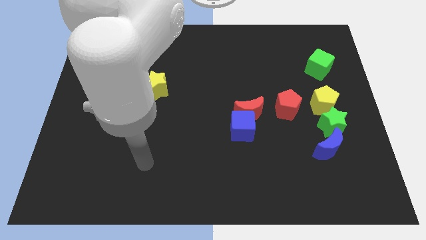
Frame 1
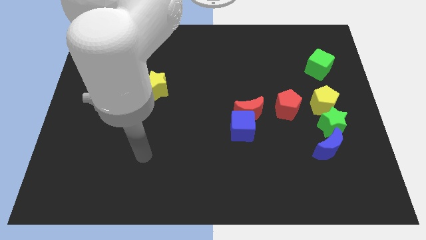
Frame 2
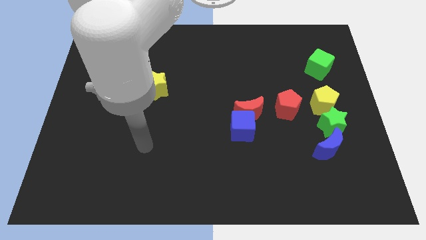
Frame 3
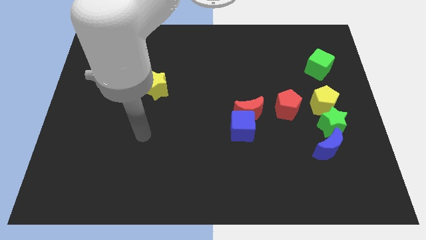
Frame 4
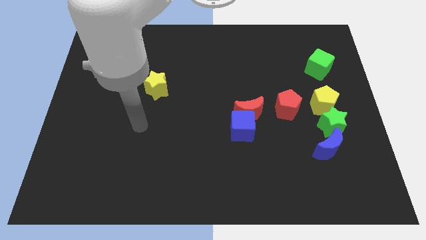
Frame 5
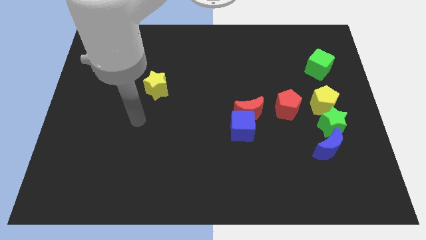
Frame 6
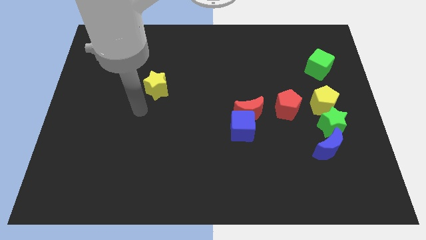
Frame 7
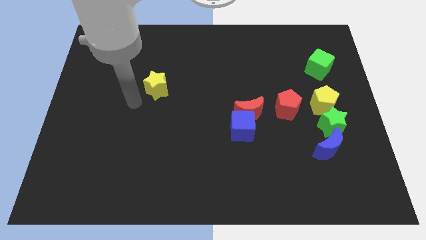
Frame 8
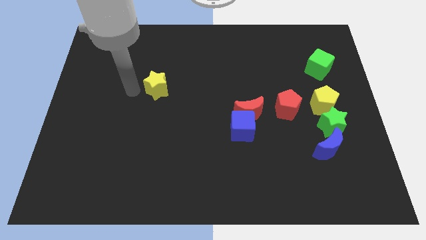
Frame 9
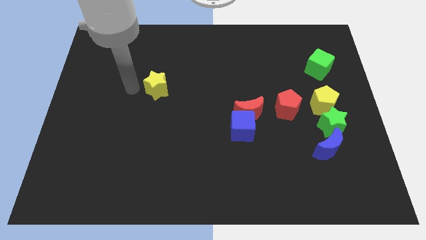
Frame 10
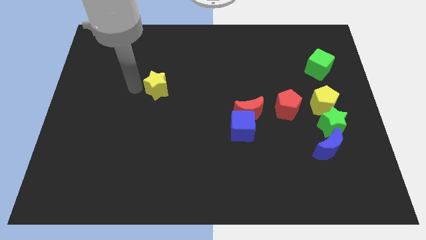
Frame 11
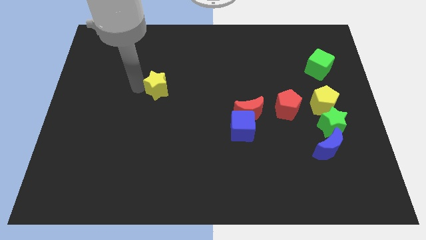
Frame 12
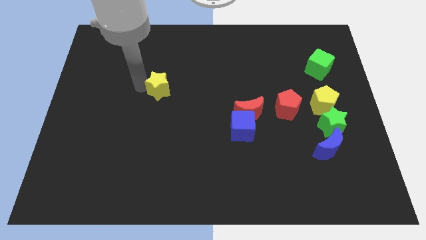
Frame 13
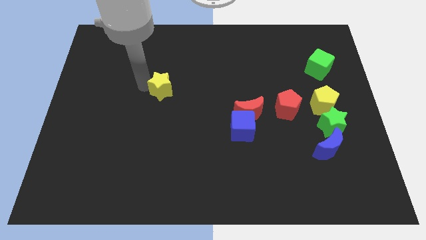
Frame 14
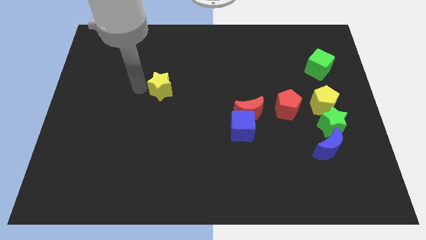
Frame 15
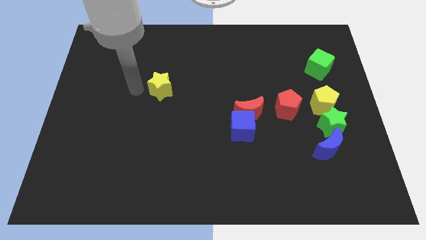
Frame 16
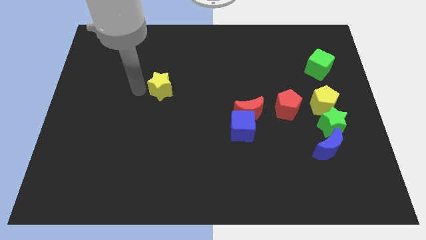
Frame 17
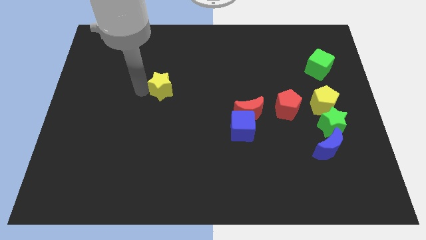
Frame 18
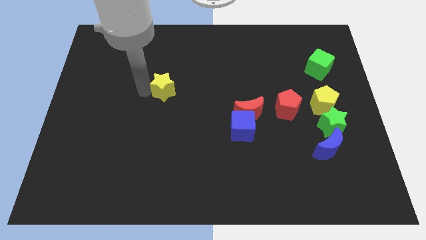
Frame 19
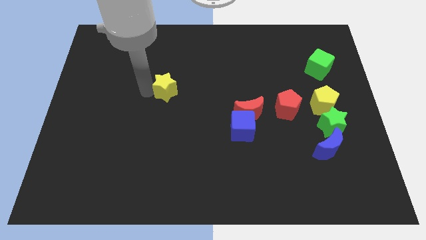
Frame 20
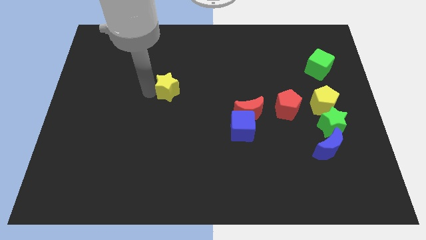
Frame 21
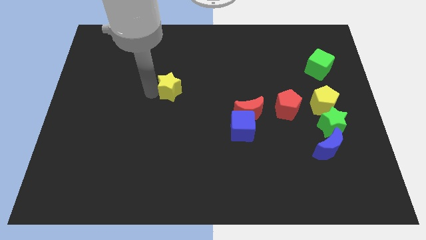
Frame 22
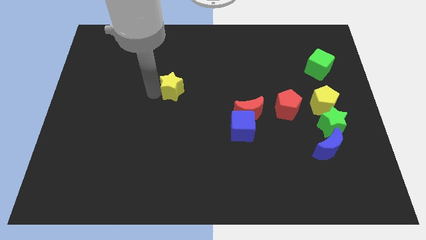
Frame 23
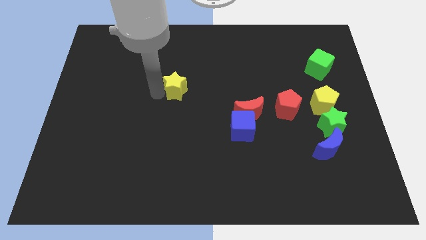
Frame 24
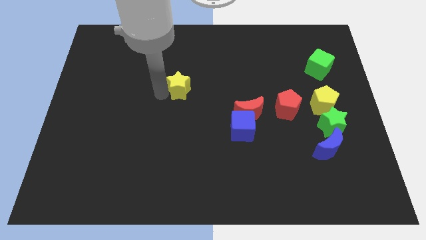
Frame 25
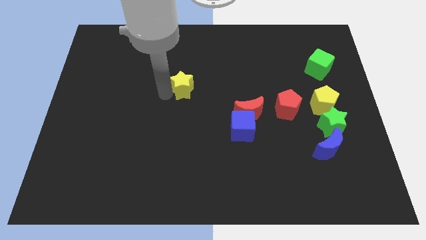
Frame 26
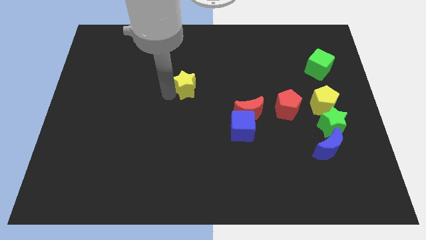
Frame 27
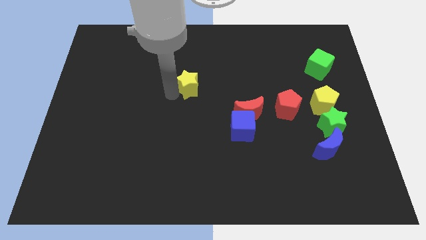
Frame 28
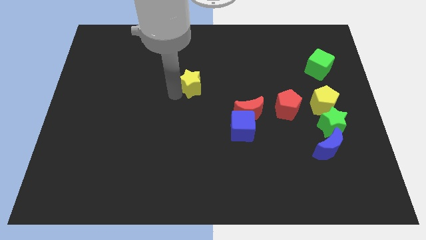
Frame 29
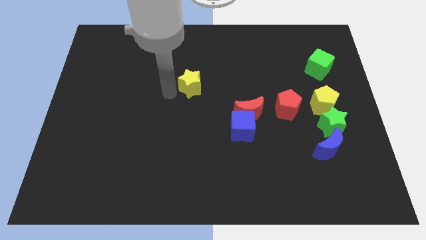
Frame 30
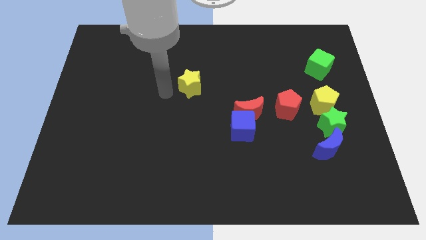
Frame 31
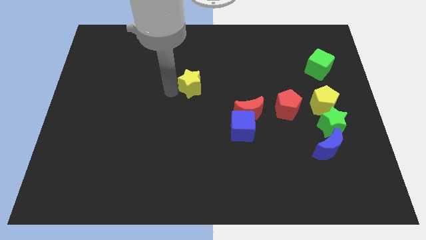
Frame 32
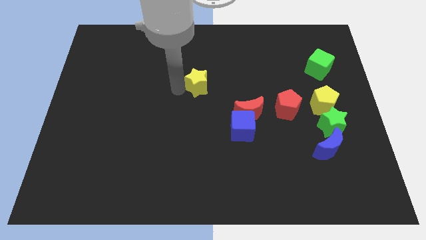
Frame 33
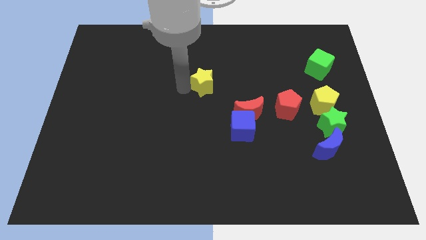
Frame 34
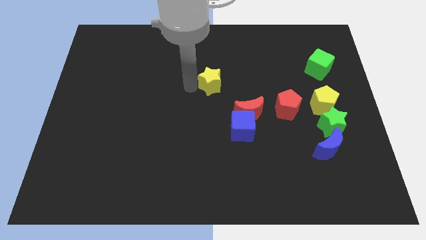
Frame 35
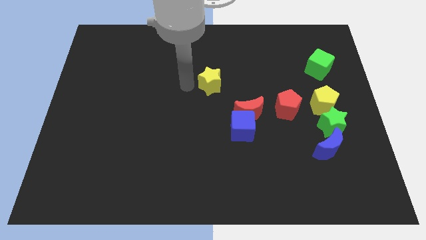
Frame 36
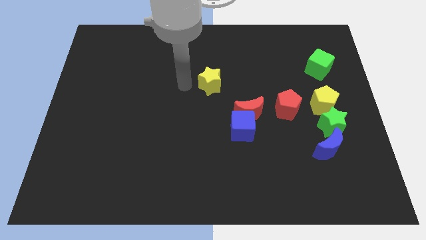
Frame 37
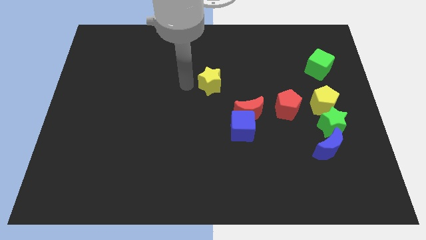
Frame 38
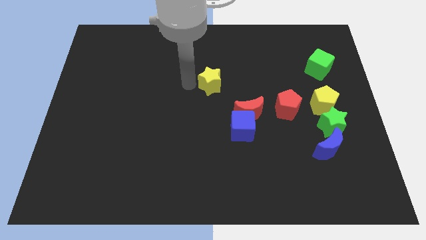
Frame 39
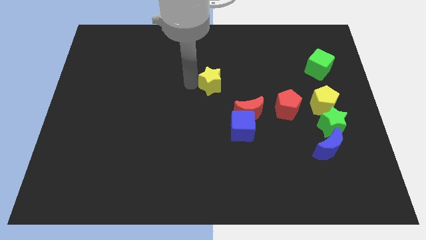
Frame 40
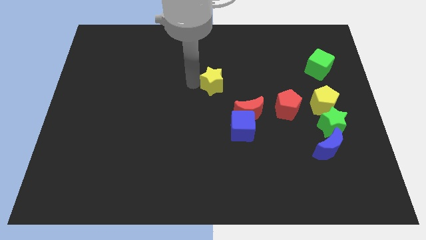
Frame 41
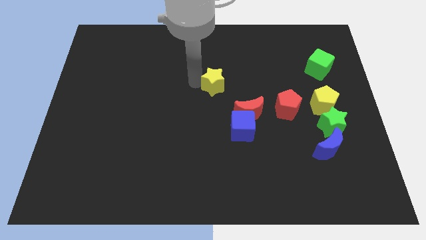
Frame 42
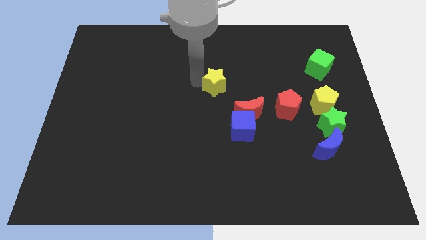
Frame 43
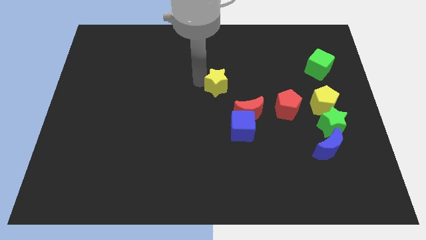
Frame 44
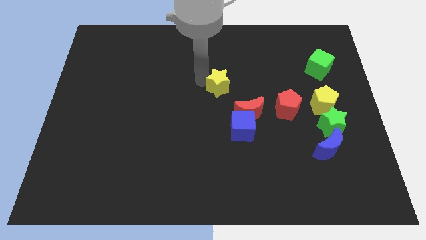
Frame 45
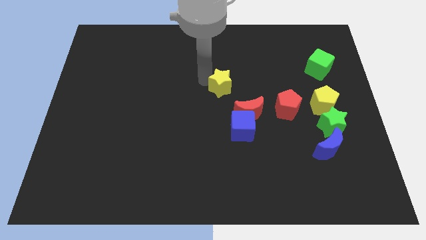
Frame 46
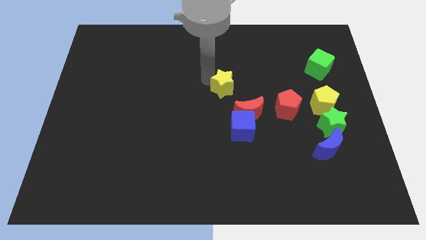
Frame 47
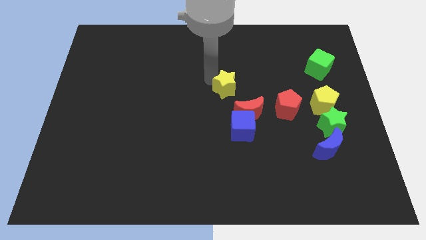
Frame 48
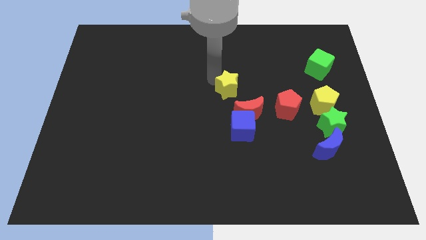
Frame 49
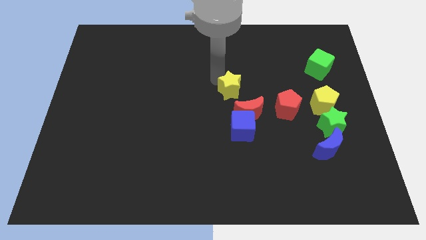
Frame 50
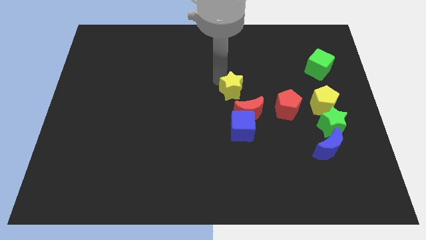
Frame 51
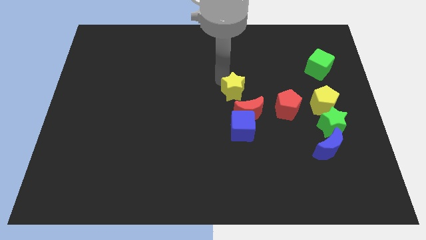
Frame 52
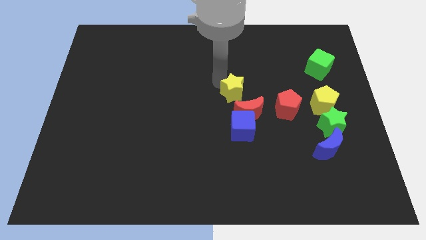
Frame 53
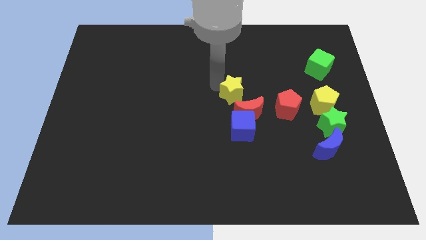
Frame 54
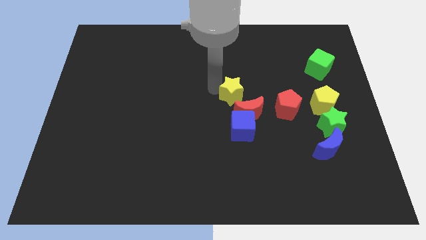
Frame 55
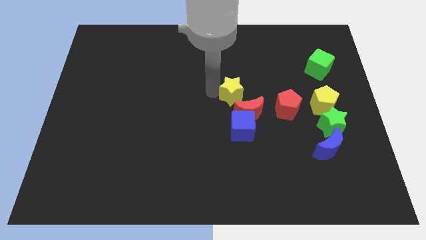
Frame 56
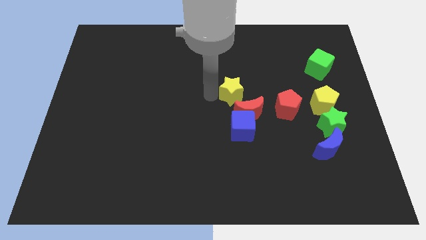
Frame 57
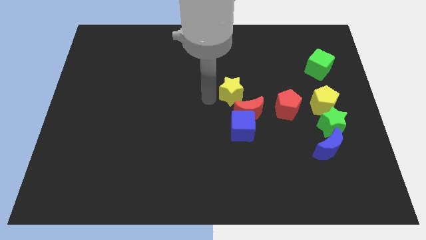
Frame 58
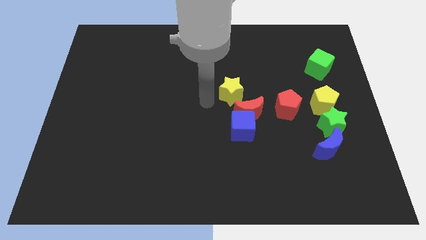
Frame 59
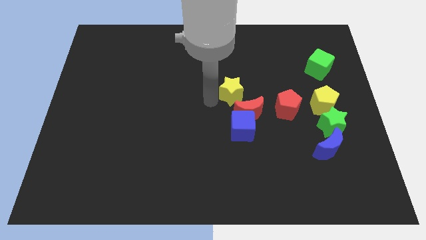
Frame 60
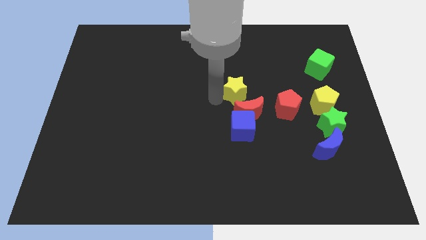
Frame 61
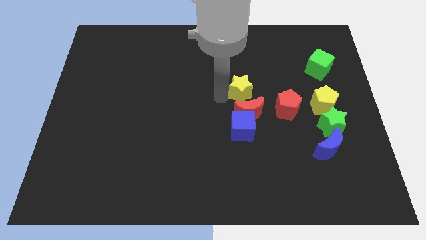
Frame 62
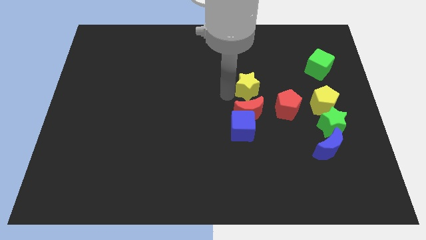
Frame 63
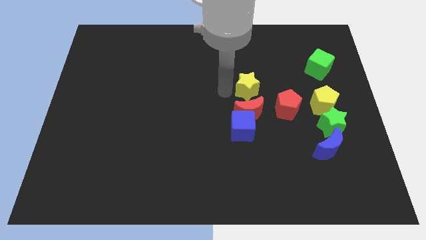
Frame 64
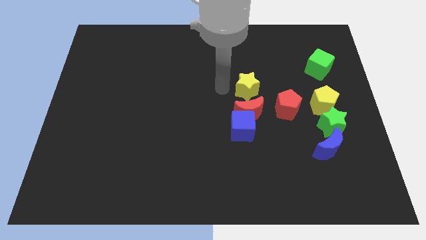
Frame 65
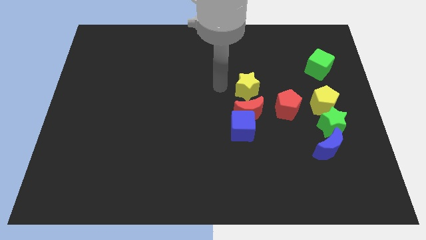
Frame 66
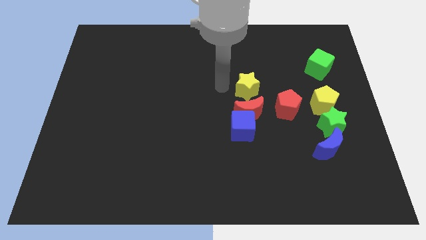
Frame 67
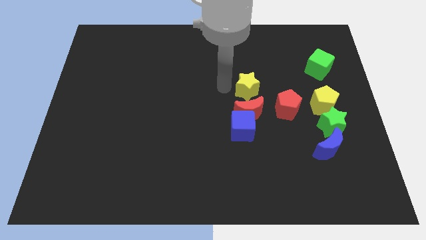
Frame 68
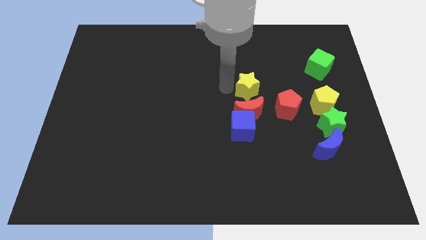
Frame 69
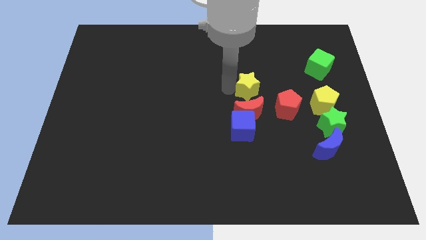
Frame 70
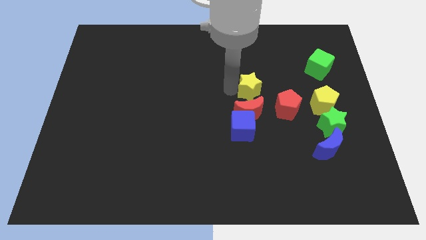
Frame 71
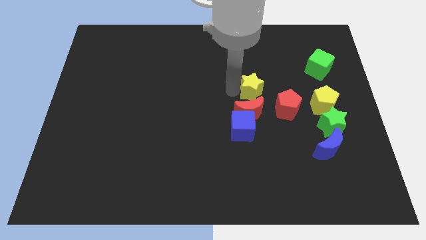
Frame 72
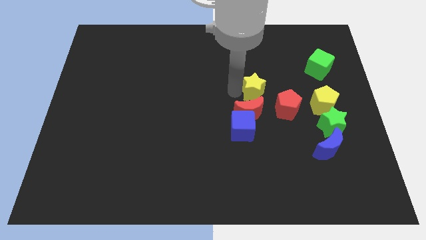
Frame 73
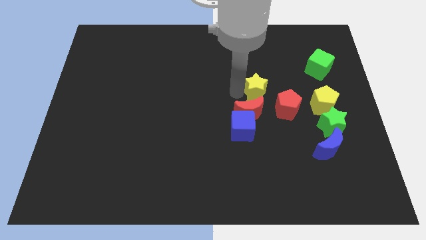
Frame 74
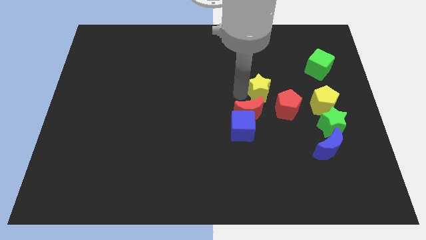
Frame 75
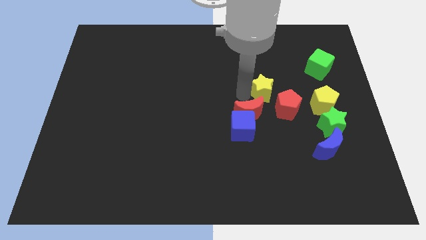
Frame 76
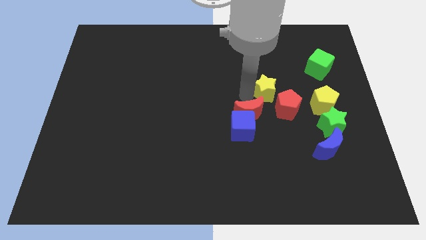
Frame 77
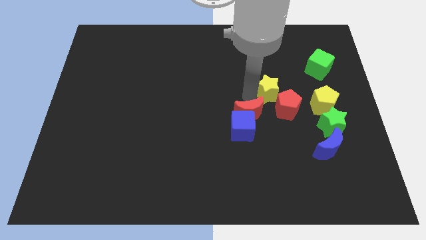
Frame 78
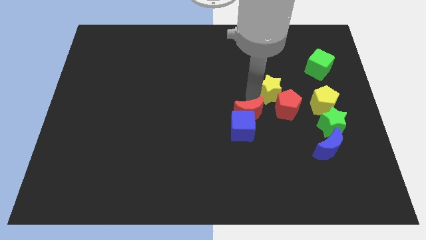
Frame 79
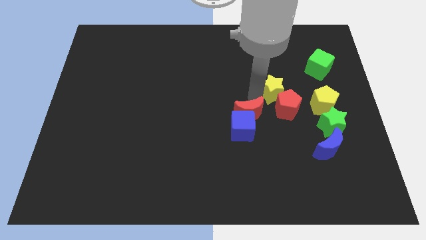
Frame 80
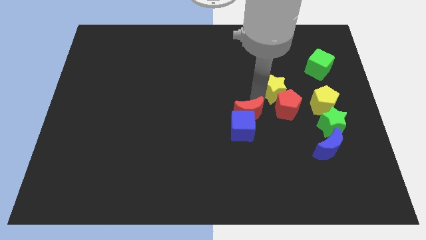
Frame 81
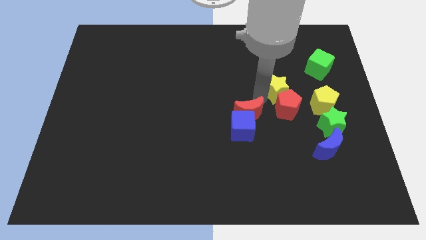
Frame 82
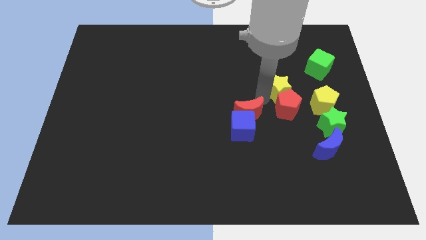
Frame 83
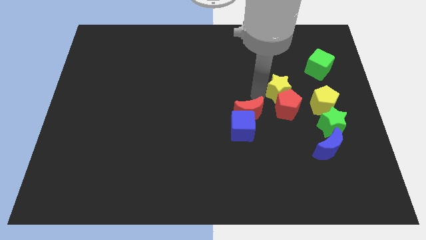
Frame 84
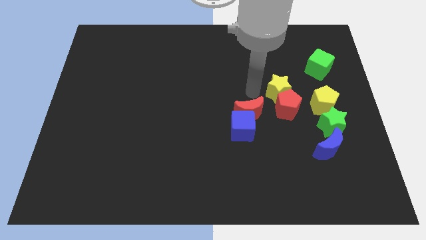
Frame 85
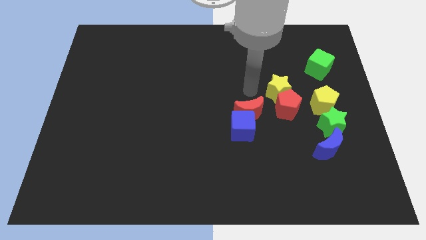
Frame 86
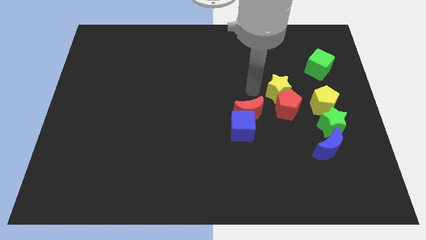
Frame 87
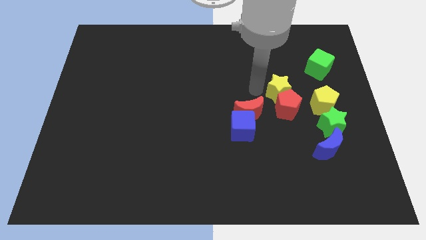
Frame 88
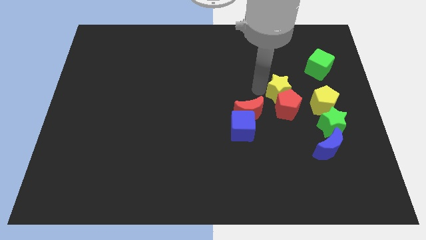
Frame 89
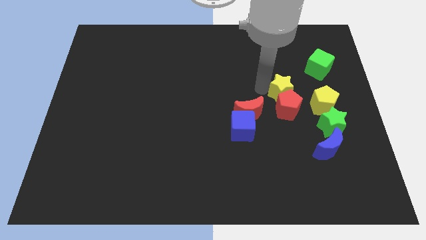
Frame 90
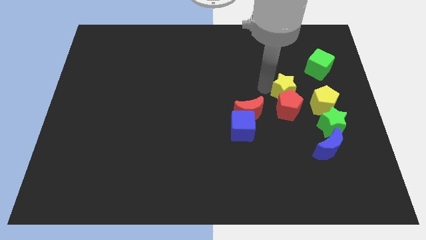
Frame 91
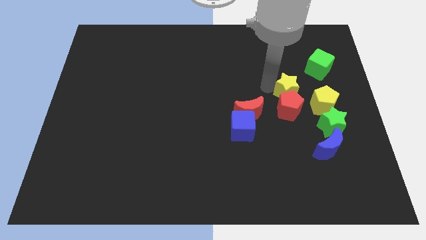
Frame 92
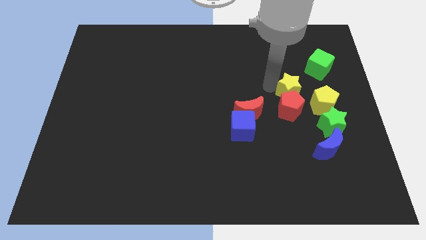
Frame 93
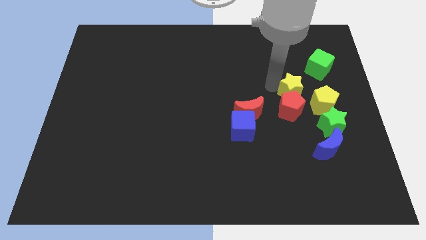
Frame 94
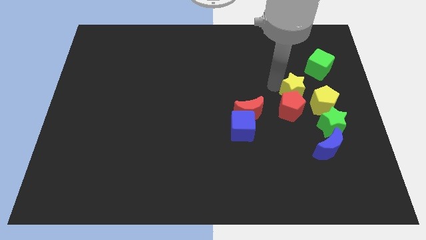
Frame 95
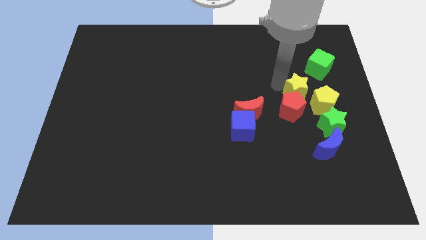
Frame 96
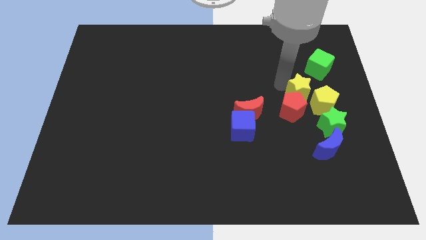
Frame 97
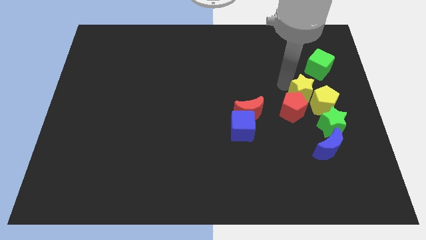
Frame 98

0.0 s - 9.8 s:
push the yellow star close to the yellow pentagon
